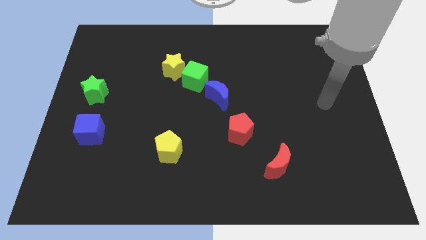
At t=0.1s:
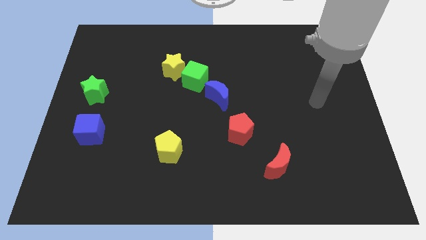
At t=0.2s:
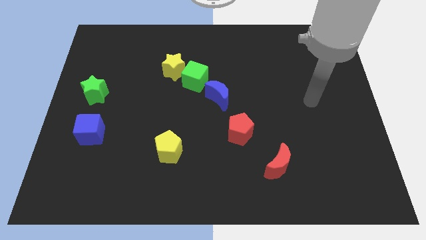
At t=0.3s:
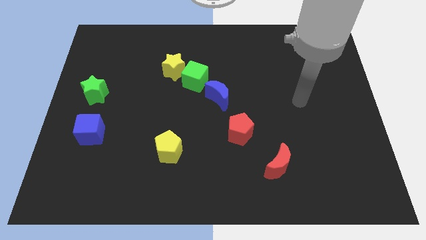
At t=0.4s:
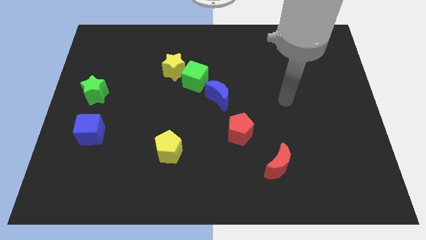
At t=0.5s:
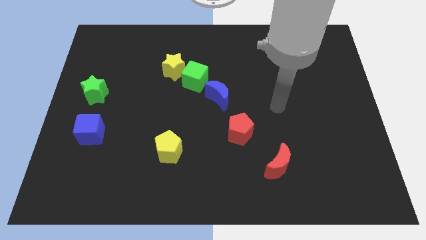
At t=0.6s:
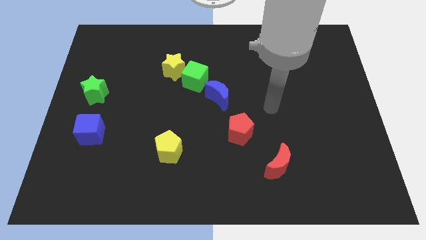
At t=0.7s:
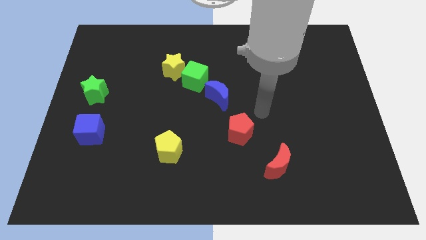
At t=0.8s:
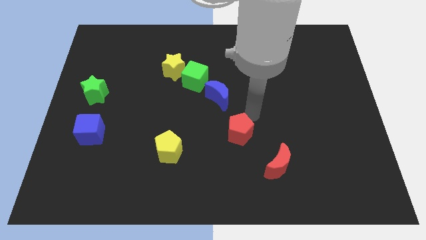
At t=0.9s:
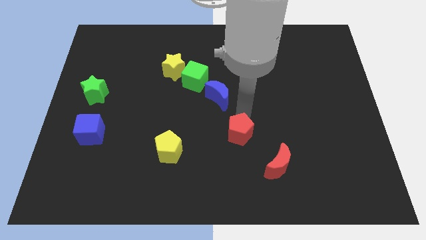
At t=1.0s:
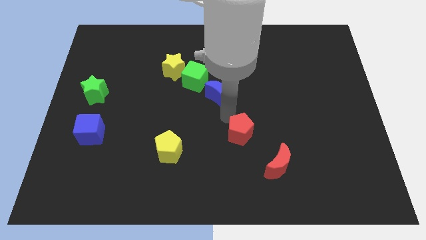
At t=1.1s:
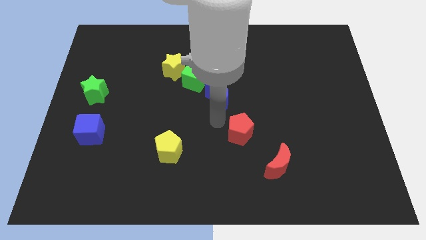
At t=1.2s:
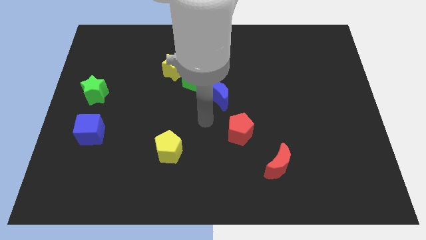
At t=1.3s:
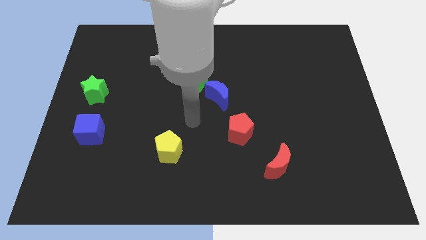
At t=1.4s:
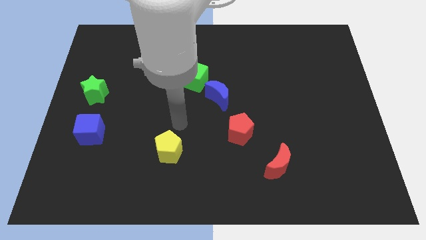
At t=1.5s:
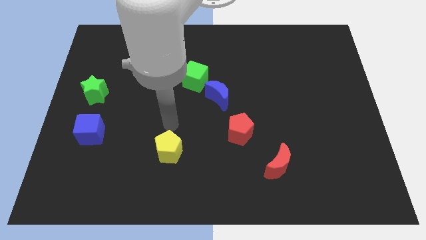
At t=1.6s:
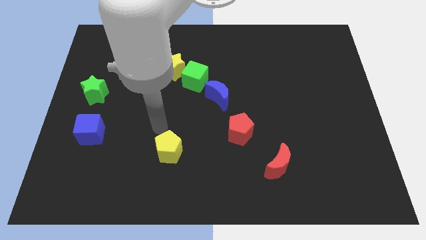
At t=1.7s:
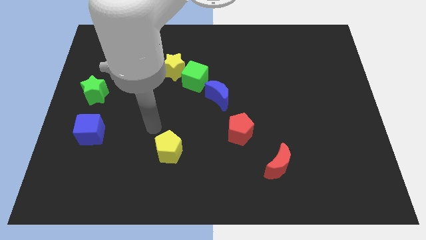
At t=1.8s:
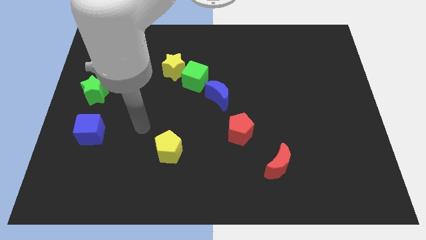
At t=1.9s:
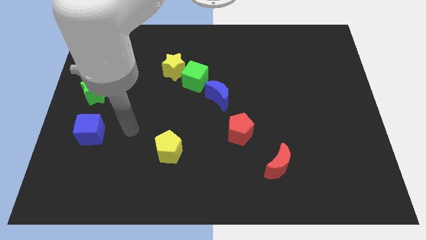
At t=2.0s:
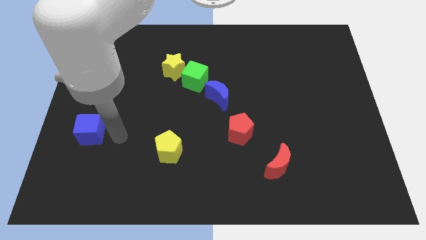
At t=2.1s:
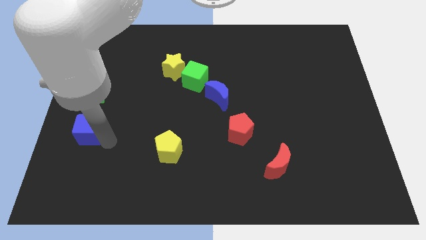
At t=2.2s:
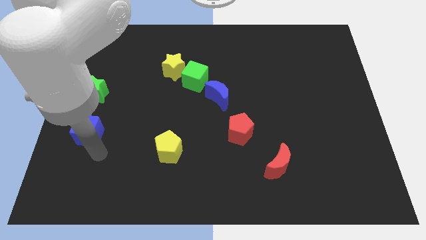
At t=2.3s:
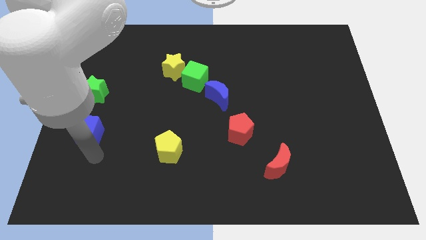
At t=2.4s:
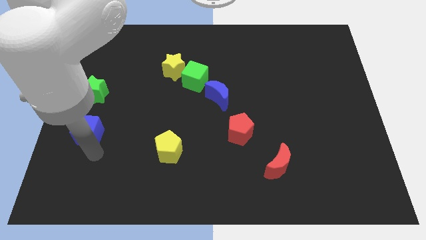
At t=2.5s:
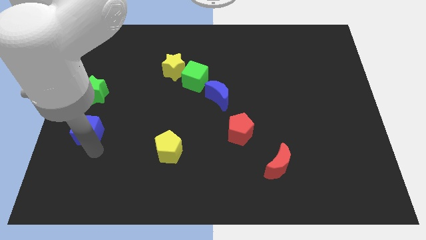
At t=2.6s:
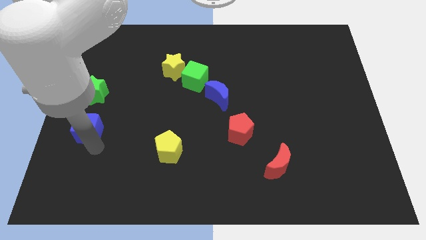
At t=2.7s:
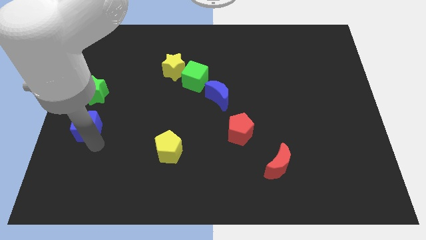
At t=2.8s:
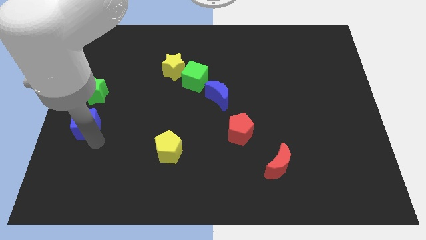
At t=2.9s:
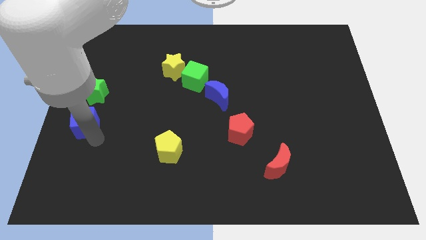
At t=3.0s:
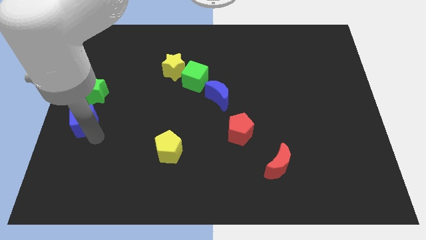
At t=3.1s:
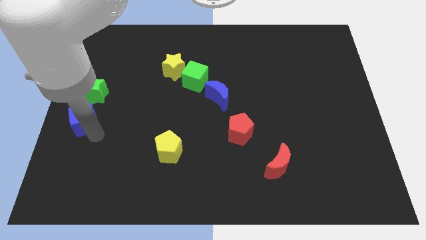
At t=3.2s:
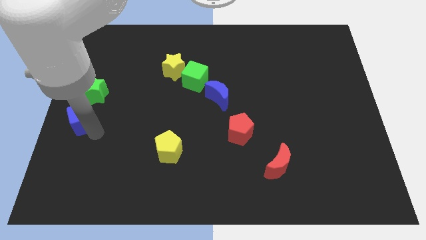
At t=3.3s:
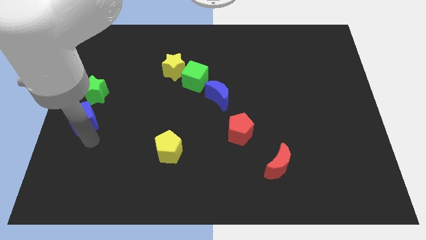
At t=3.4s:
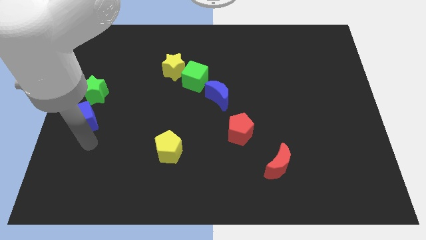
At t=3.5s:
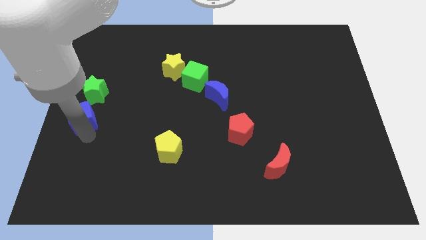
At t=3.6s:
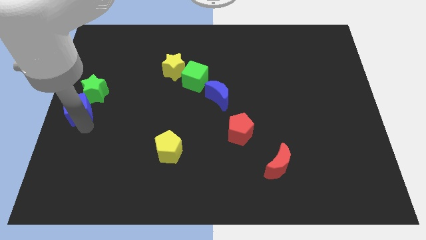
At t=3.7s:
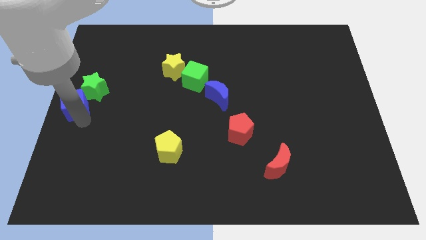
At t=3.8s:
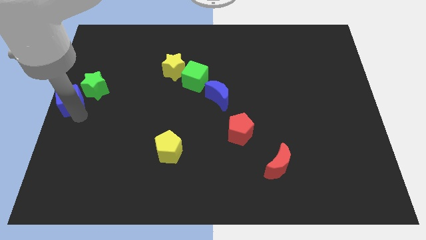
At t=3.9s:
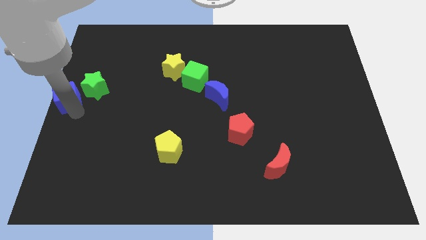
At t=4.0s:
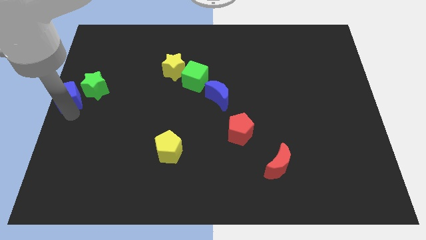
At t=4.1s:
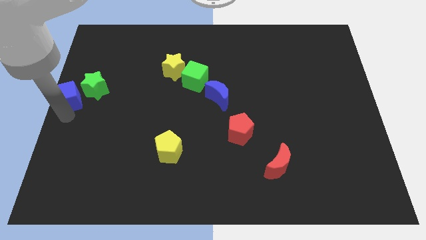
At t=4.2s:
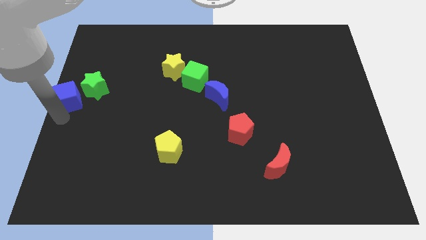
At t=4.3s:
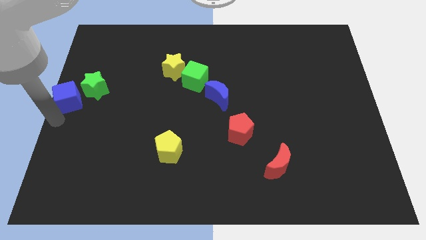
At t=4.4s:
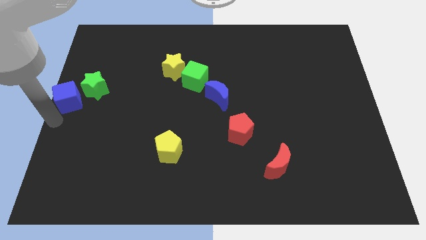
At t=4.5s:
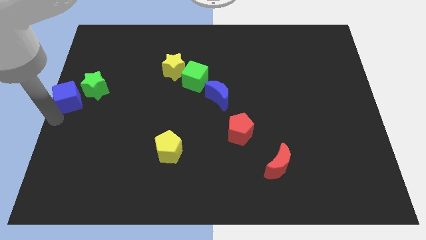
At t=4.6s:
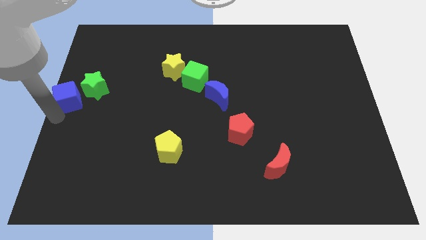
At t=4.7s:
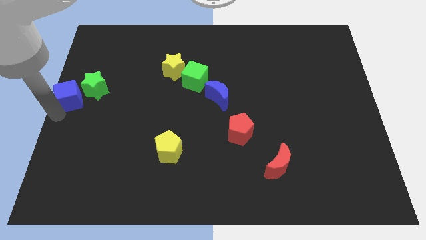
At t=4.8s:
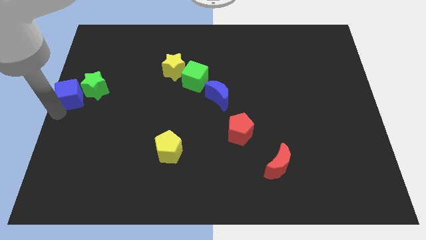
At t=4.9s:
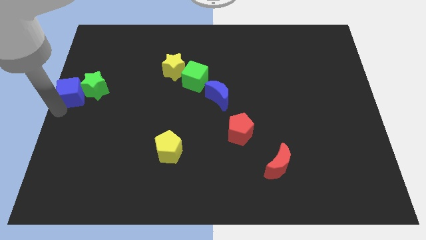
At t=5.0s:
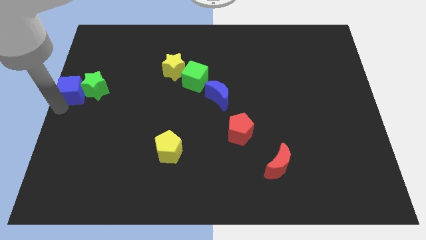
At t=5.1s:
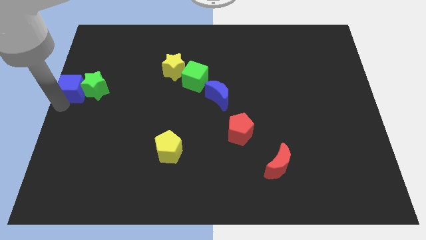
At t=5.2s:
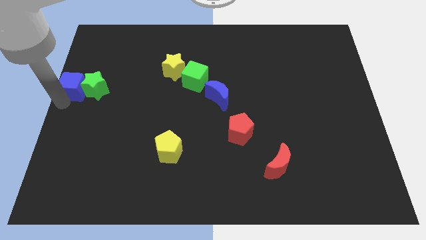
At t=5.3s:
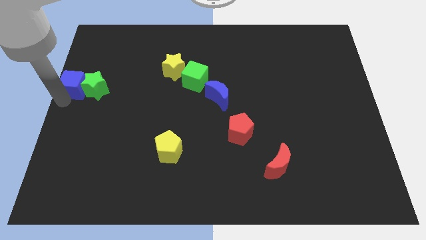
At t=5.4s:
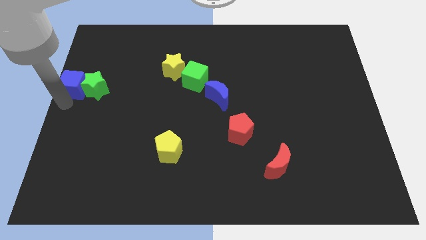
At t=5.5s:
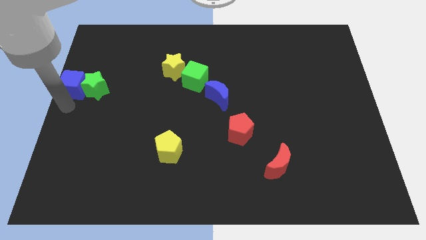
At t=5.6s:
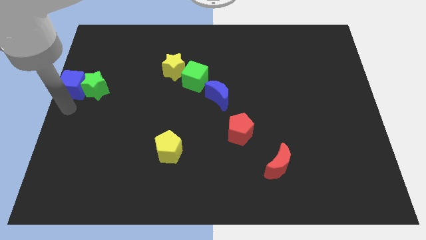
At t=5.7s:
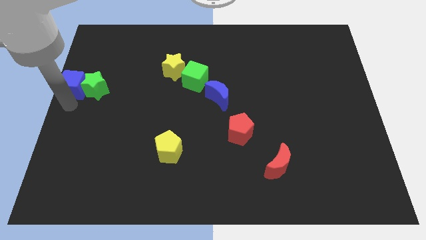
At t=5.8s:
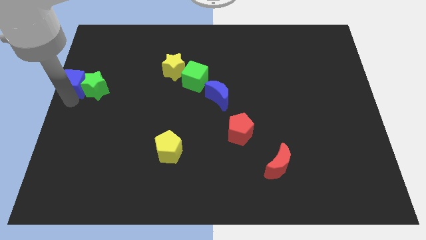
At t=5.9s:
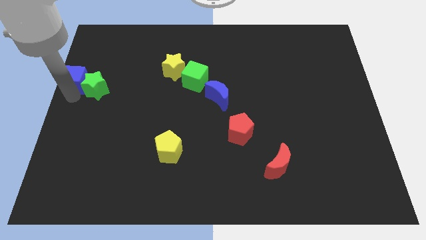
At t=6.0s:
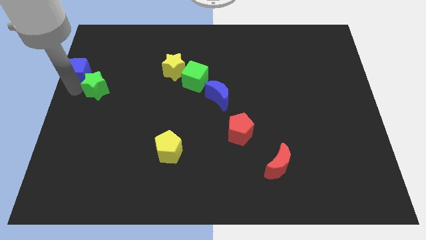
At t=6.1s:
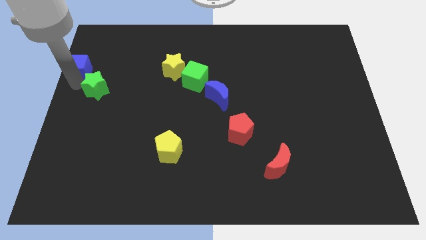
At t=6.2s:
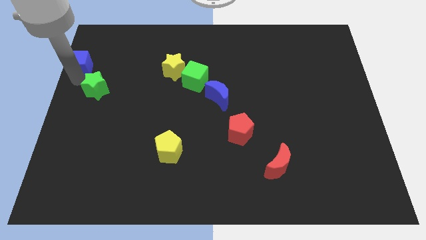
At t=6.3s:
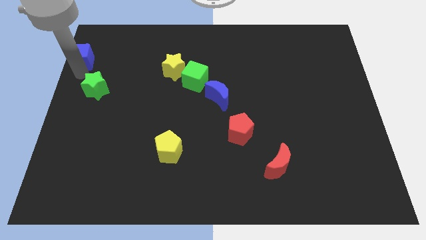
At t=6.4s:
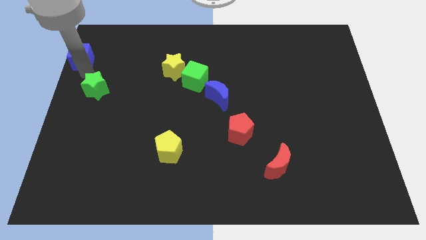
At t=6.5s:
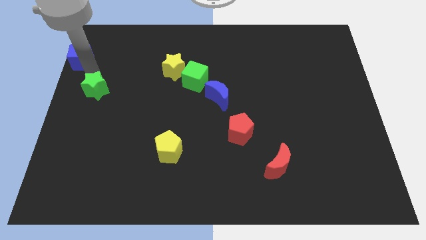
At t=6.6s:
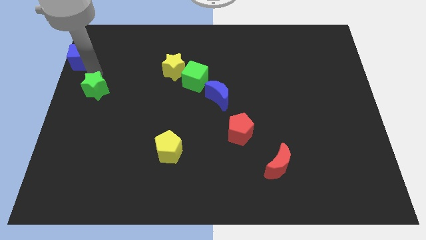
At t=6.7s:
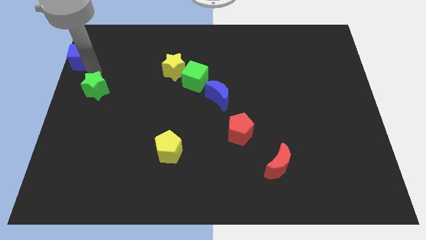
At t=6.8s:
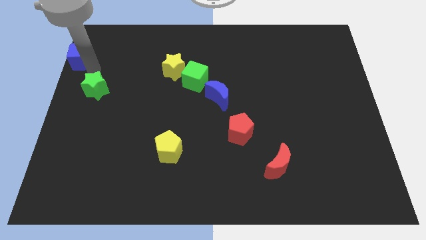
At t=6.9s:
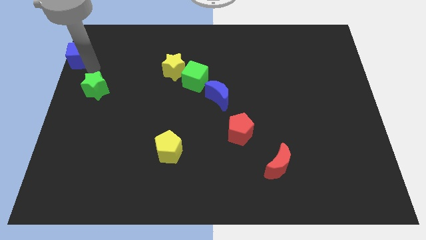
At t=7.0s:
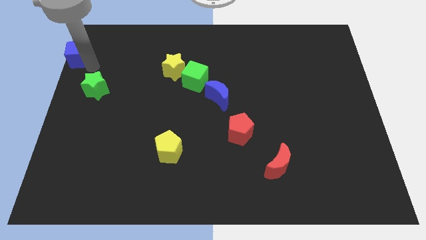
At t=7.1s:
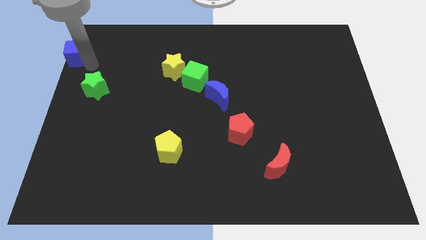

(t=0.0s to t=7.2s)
push the blue cube to the top left
